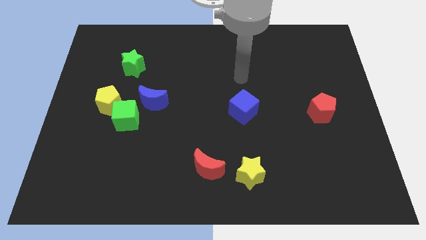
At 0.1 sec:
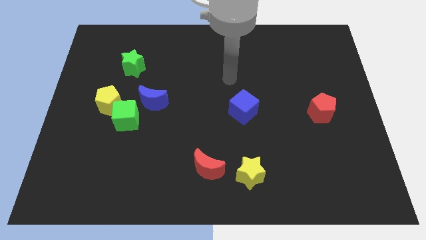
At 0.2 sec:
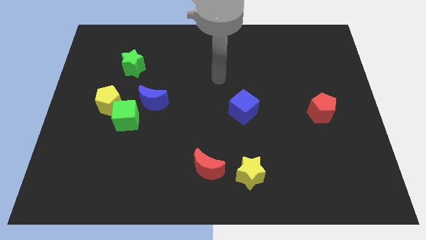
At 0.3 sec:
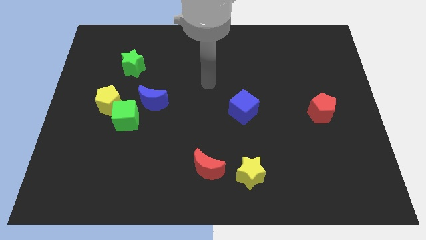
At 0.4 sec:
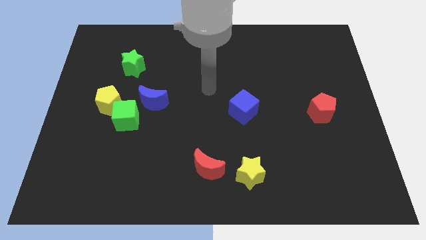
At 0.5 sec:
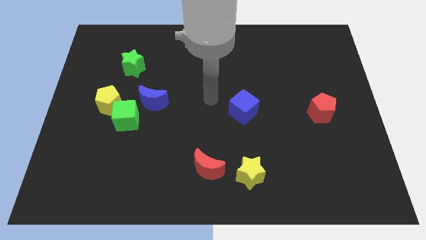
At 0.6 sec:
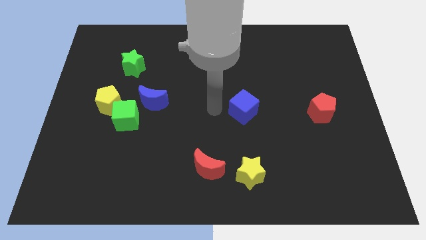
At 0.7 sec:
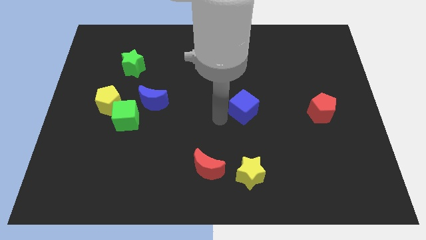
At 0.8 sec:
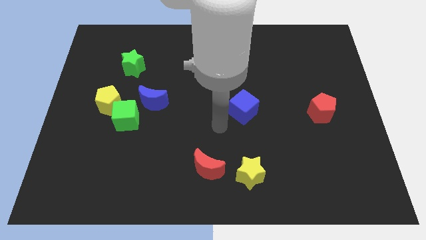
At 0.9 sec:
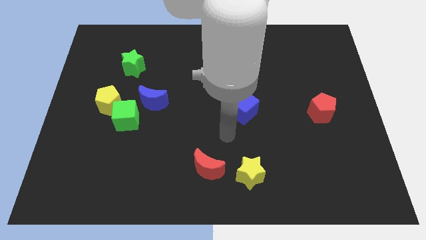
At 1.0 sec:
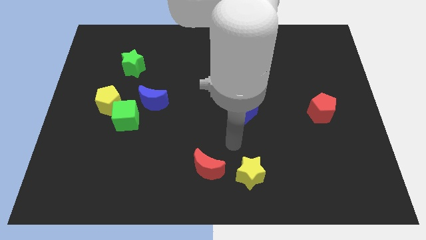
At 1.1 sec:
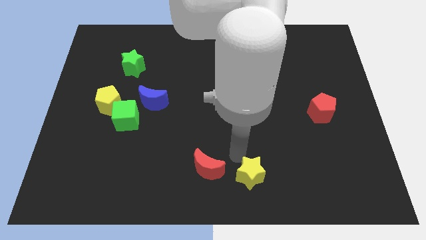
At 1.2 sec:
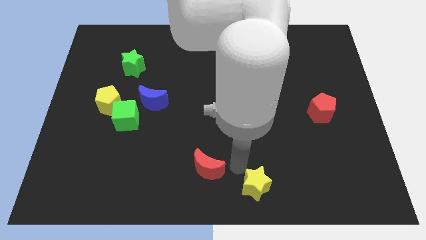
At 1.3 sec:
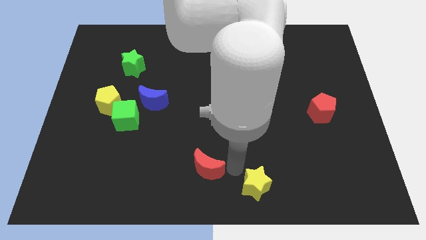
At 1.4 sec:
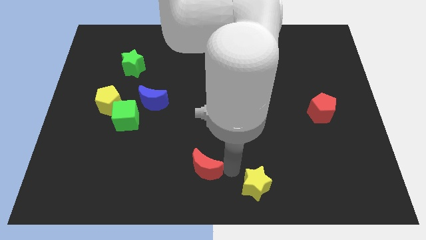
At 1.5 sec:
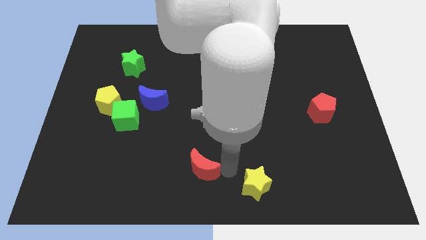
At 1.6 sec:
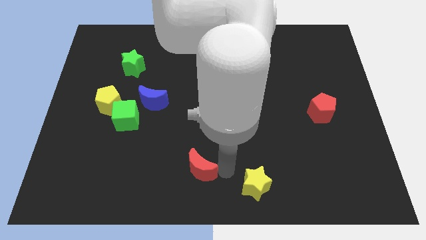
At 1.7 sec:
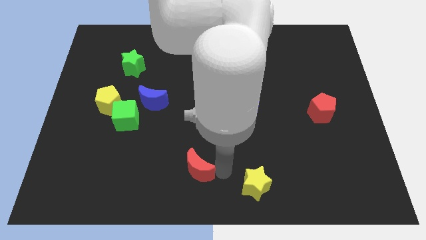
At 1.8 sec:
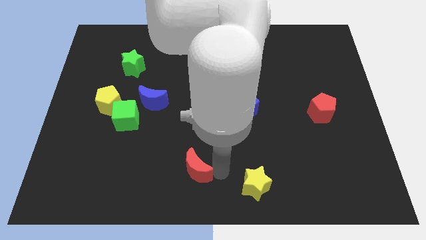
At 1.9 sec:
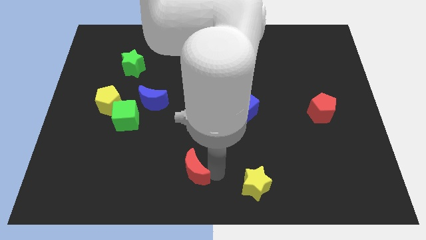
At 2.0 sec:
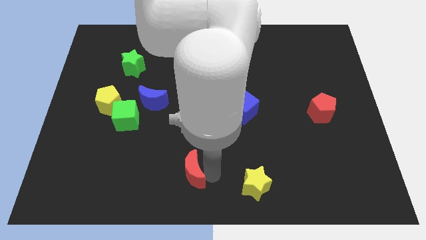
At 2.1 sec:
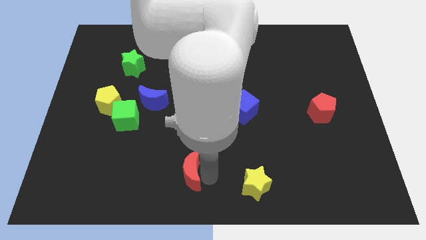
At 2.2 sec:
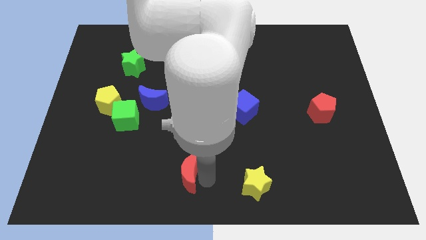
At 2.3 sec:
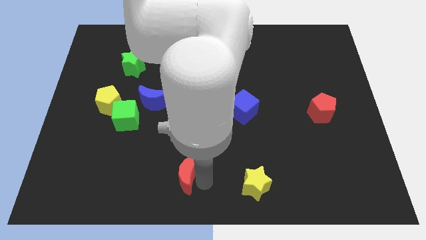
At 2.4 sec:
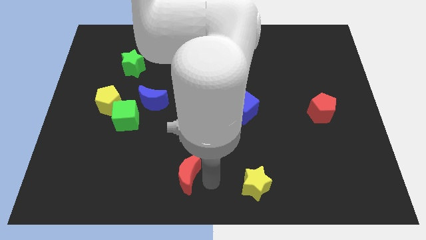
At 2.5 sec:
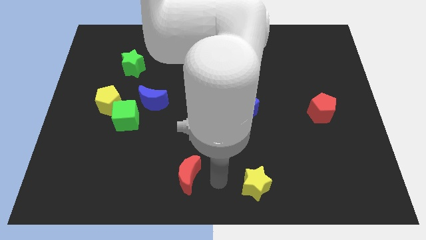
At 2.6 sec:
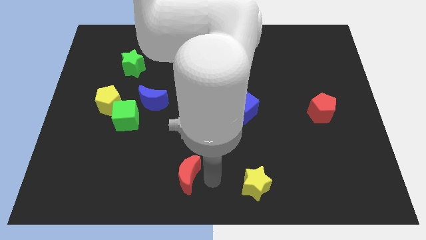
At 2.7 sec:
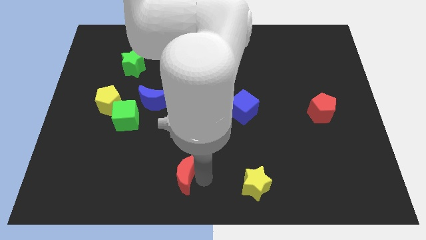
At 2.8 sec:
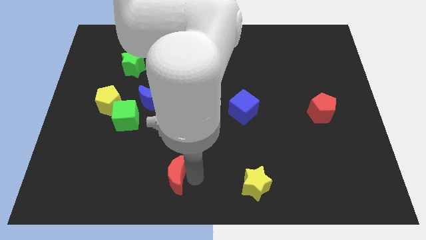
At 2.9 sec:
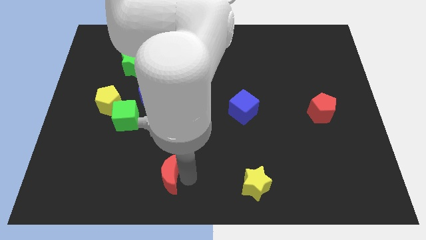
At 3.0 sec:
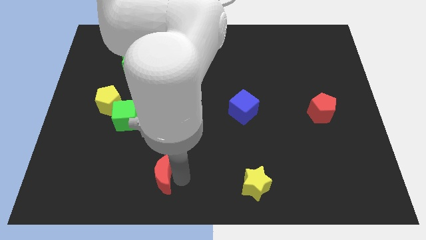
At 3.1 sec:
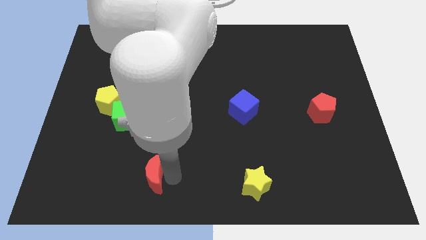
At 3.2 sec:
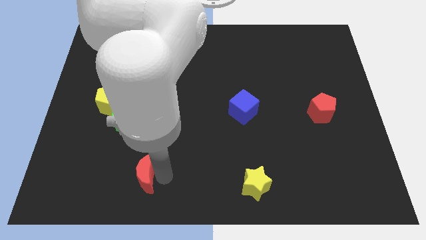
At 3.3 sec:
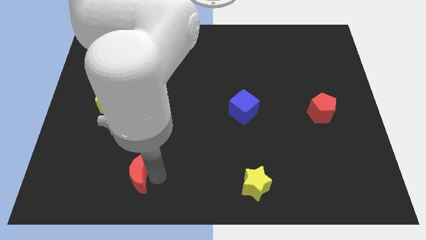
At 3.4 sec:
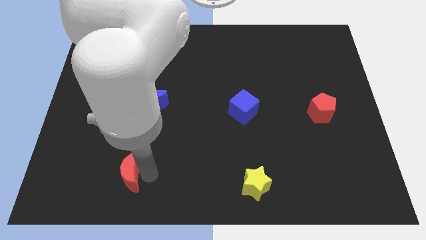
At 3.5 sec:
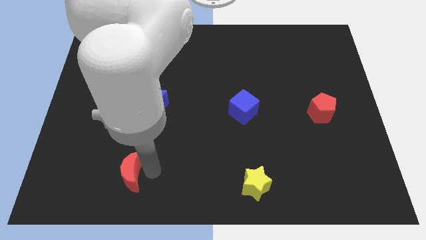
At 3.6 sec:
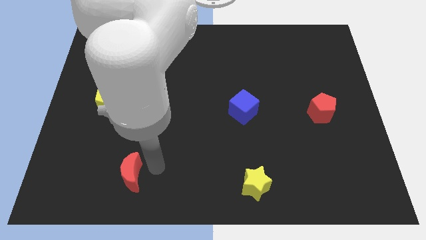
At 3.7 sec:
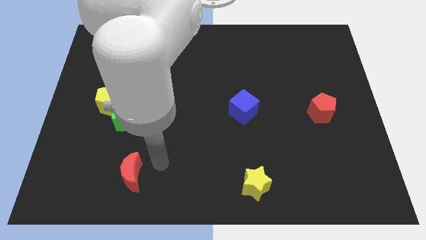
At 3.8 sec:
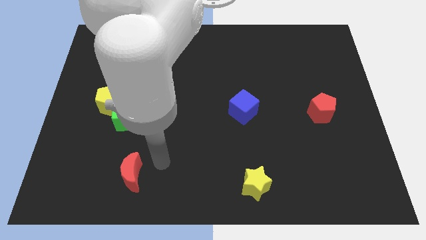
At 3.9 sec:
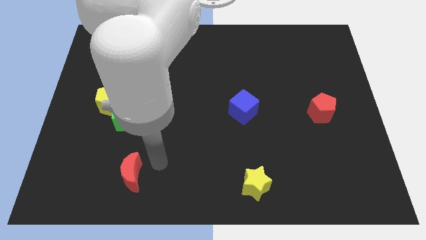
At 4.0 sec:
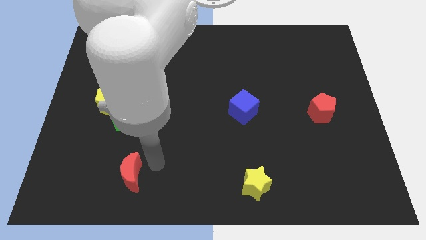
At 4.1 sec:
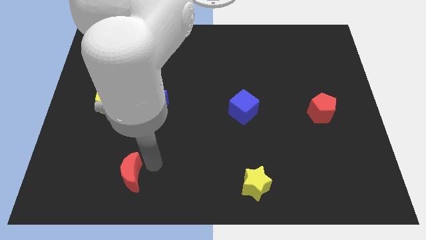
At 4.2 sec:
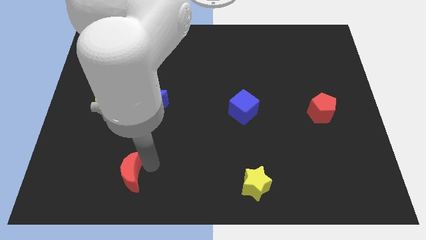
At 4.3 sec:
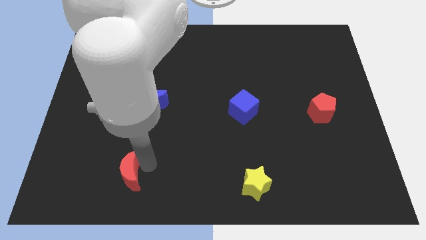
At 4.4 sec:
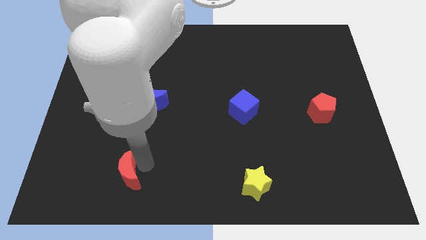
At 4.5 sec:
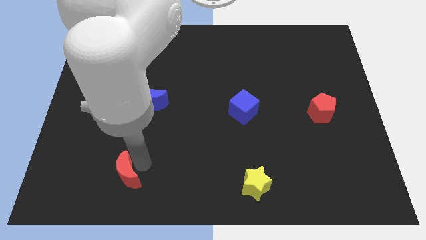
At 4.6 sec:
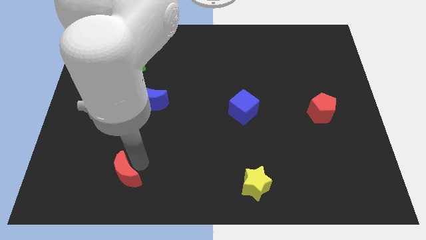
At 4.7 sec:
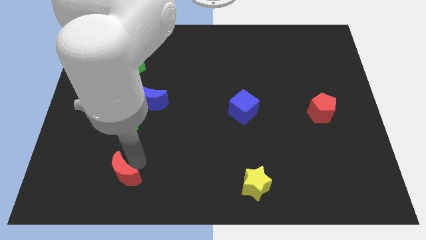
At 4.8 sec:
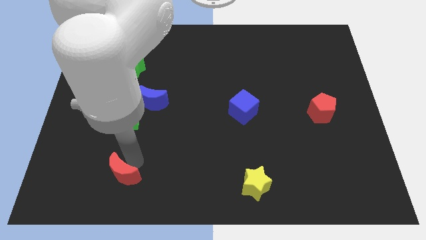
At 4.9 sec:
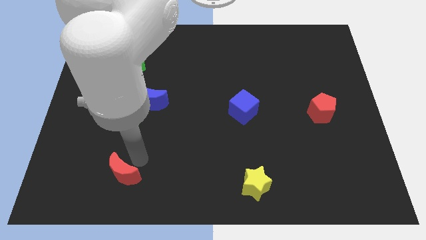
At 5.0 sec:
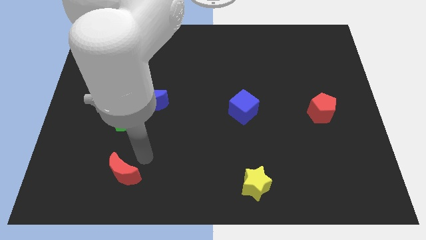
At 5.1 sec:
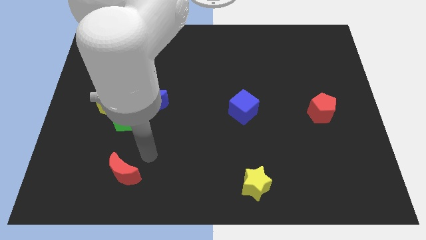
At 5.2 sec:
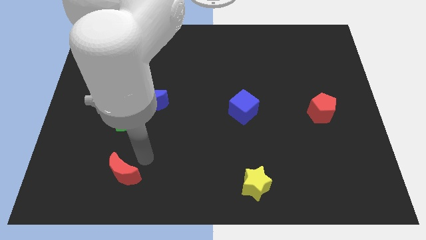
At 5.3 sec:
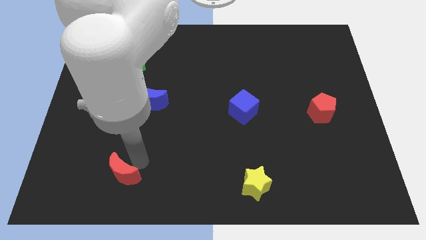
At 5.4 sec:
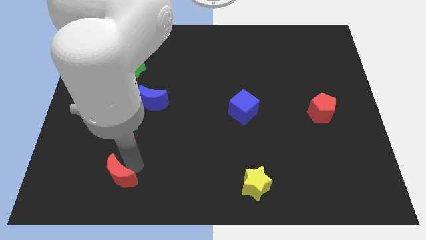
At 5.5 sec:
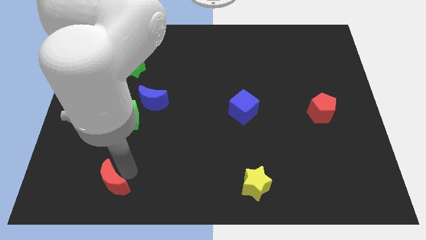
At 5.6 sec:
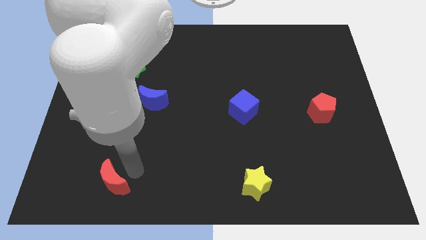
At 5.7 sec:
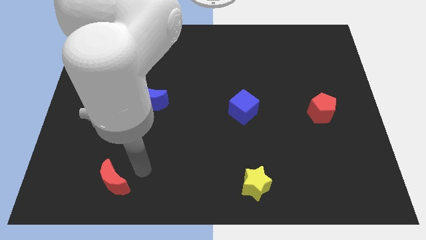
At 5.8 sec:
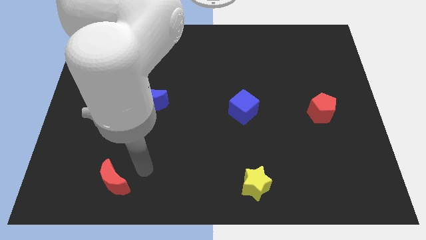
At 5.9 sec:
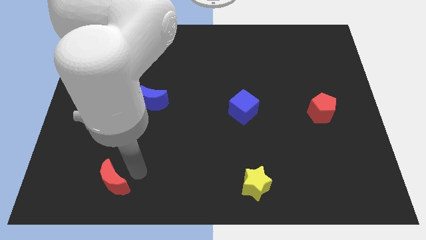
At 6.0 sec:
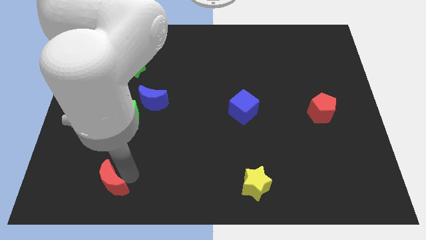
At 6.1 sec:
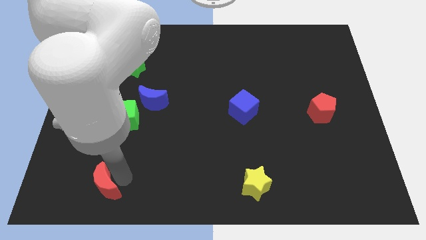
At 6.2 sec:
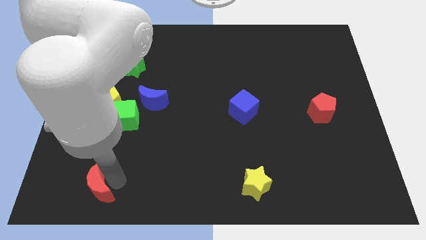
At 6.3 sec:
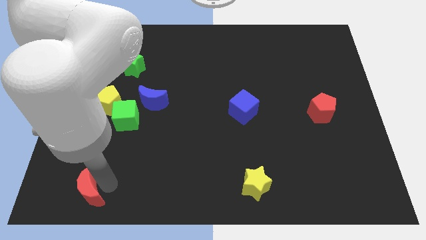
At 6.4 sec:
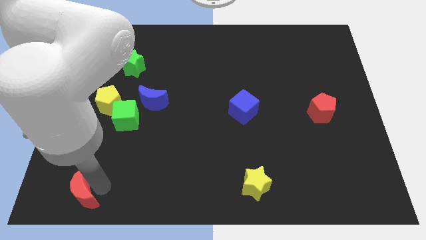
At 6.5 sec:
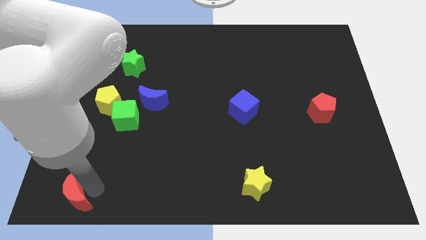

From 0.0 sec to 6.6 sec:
slide the red moon to the lower left corner
